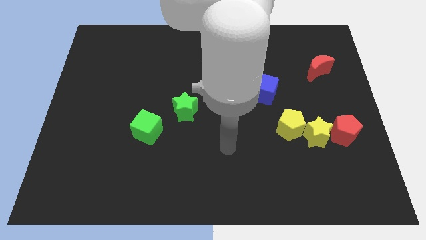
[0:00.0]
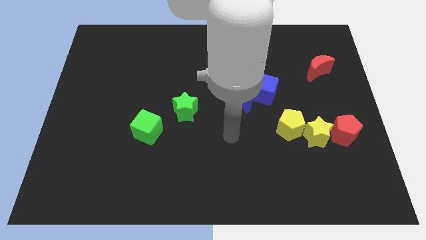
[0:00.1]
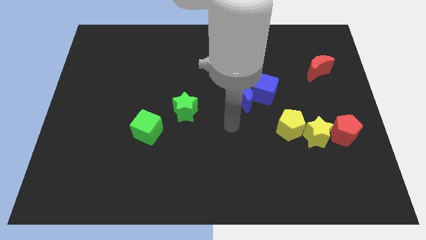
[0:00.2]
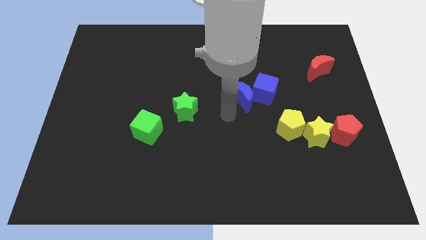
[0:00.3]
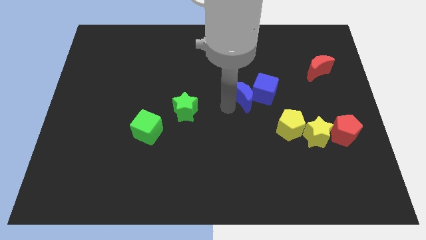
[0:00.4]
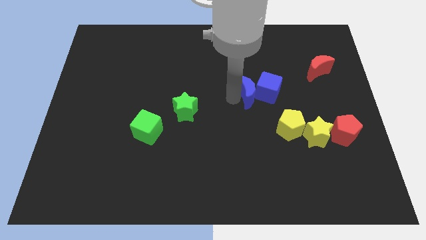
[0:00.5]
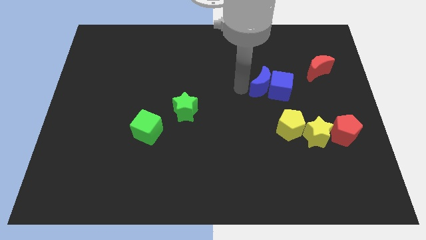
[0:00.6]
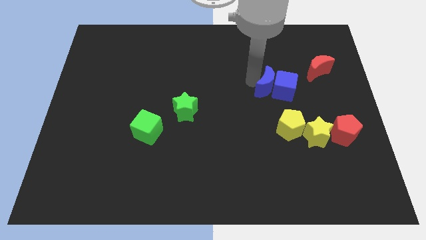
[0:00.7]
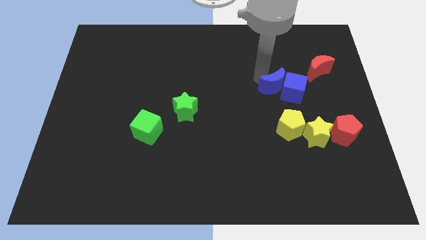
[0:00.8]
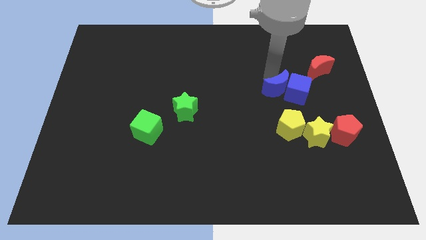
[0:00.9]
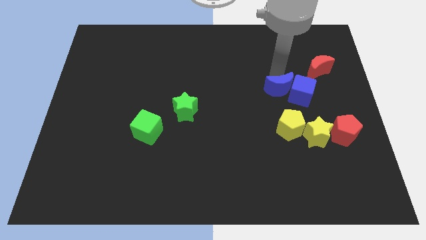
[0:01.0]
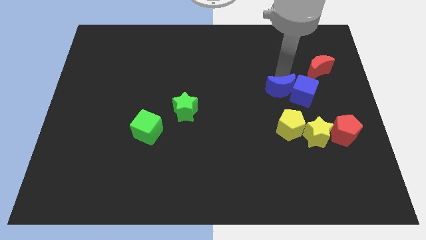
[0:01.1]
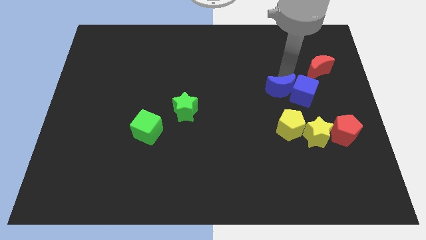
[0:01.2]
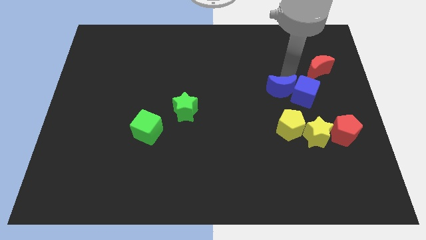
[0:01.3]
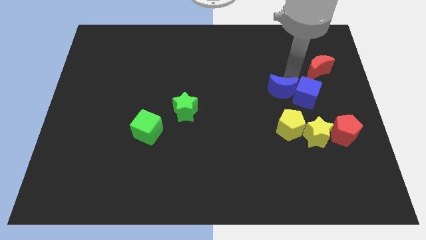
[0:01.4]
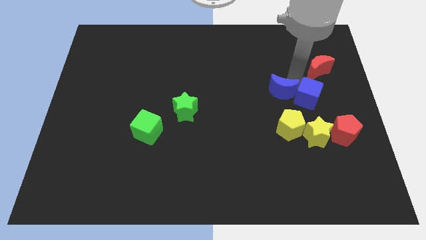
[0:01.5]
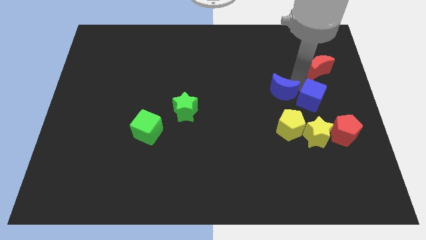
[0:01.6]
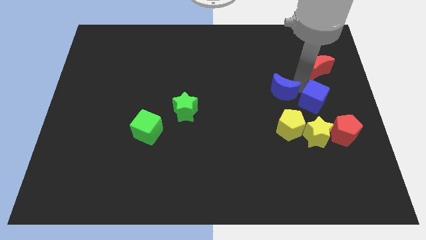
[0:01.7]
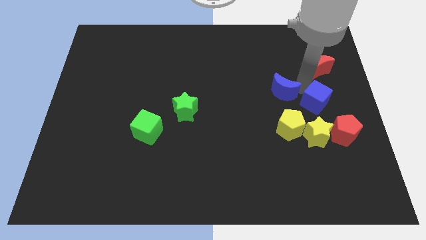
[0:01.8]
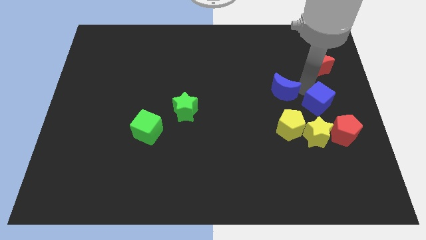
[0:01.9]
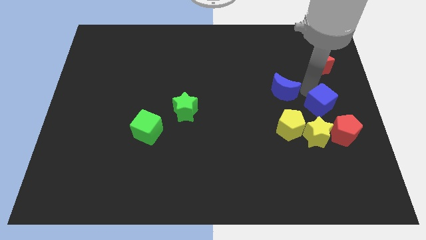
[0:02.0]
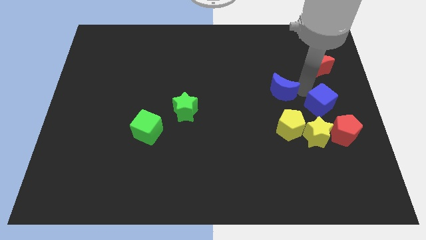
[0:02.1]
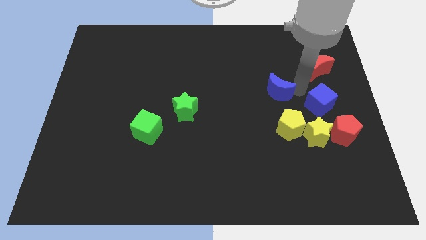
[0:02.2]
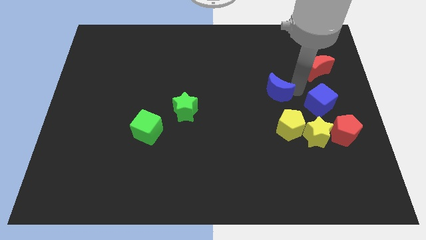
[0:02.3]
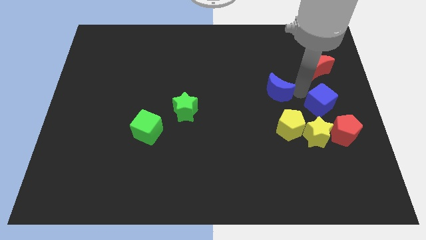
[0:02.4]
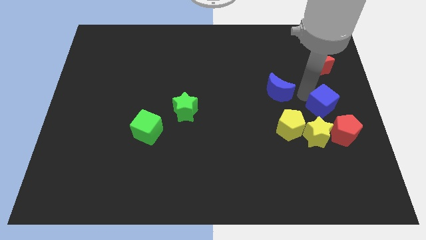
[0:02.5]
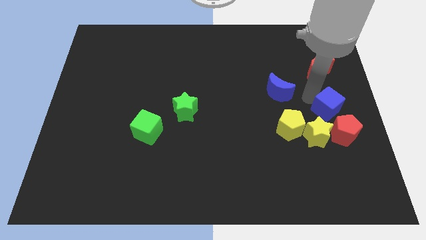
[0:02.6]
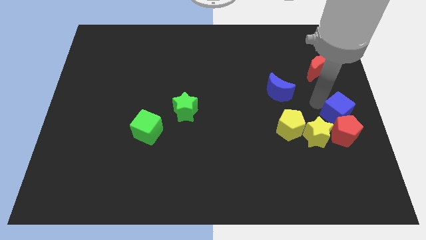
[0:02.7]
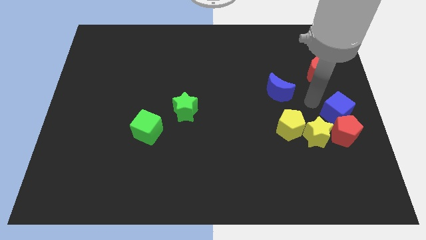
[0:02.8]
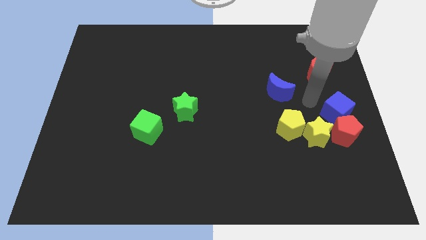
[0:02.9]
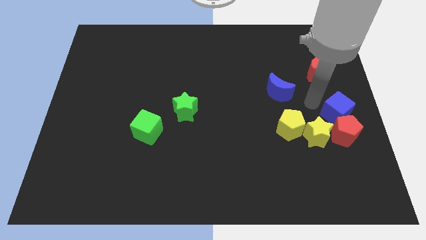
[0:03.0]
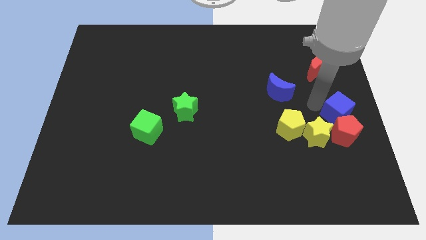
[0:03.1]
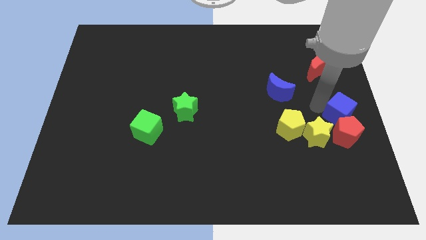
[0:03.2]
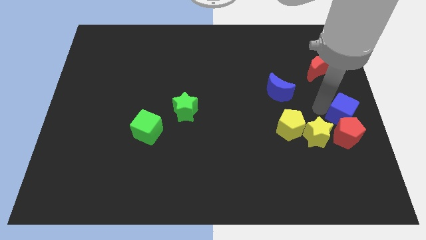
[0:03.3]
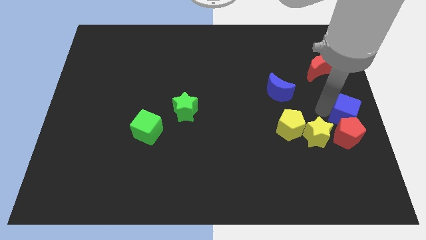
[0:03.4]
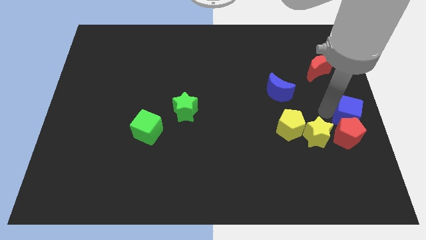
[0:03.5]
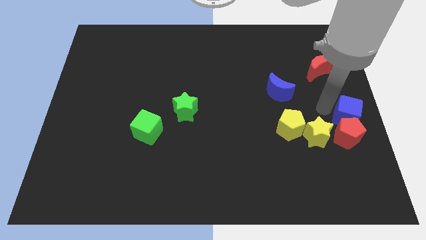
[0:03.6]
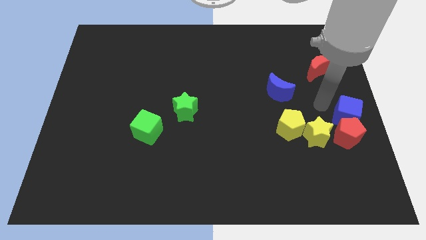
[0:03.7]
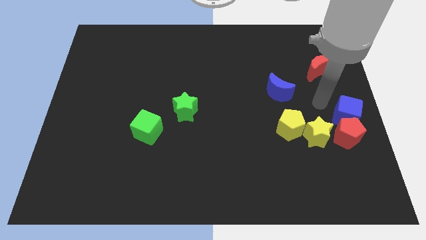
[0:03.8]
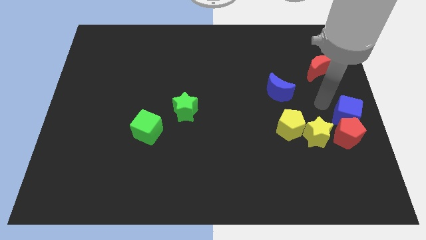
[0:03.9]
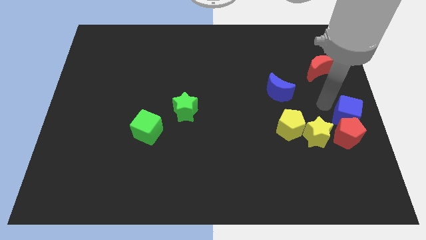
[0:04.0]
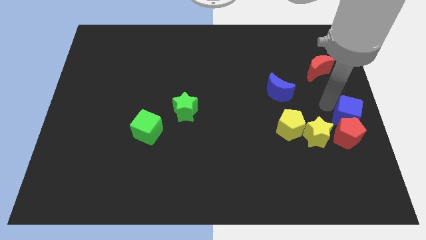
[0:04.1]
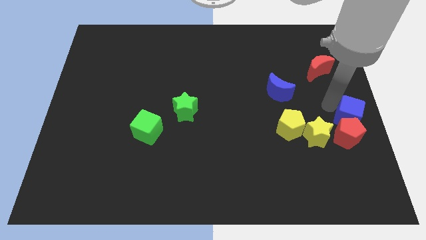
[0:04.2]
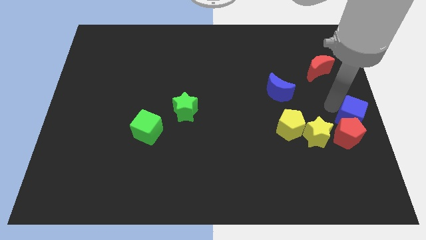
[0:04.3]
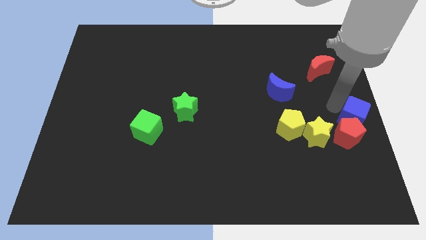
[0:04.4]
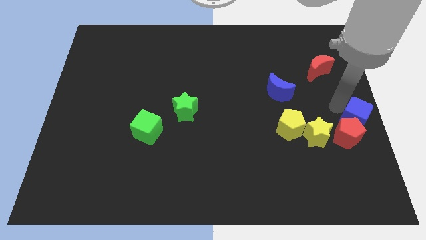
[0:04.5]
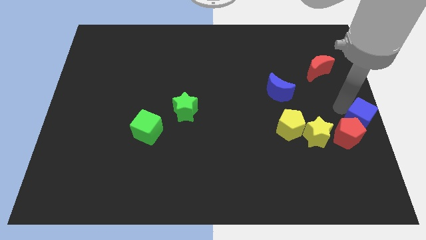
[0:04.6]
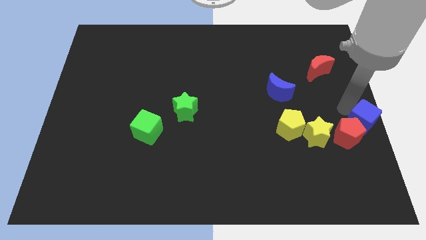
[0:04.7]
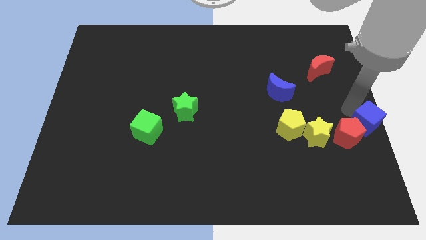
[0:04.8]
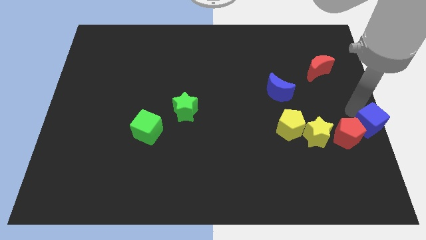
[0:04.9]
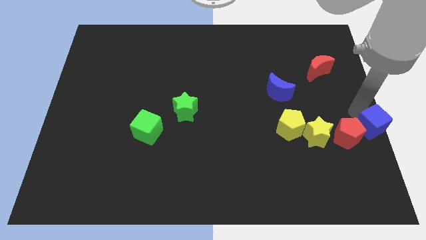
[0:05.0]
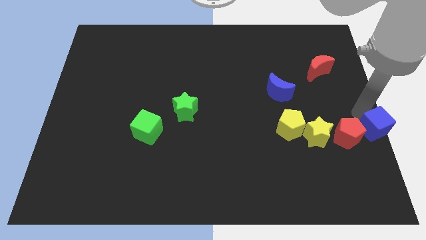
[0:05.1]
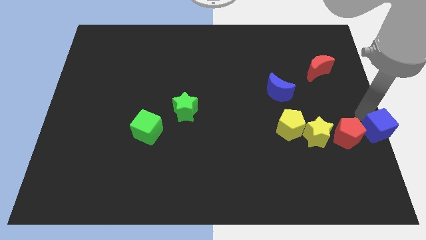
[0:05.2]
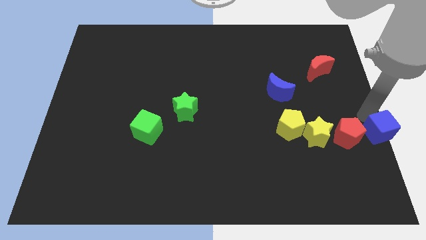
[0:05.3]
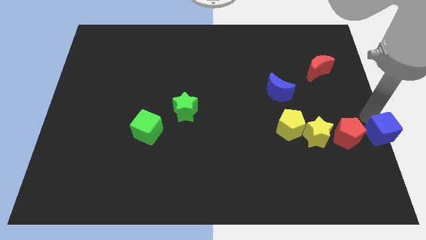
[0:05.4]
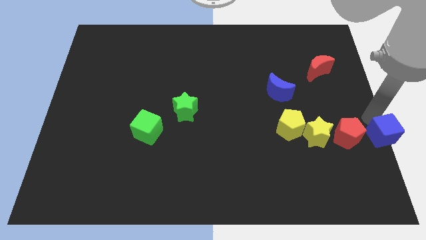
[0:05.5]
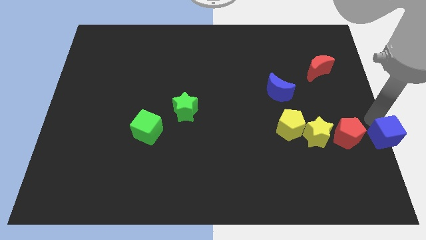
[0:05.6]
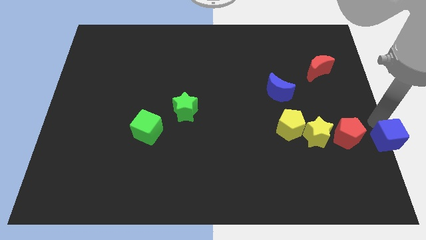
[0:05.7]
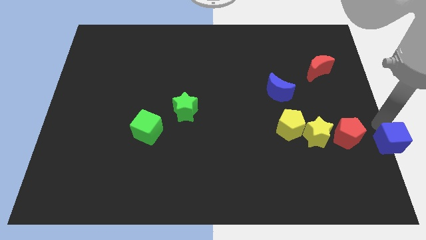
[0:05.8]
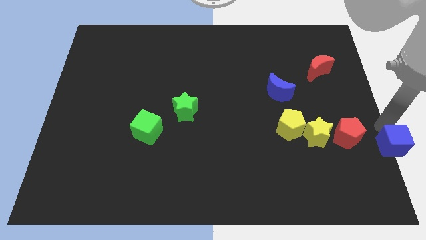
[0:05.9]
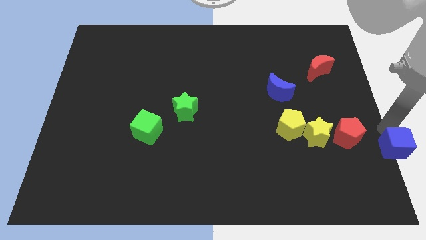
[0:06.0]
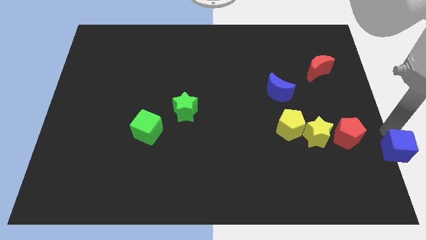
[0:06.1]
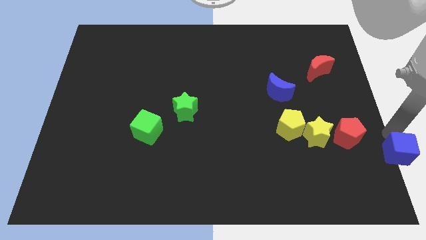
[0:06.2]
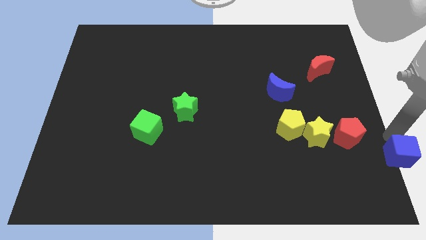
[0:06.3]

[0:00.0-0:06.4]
slide the blue cube to the bottom right of the board

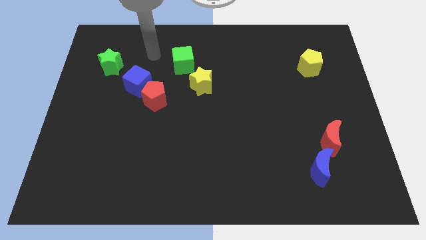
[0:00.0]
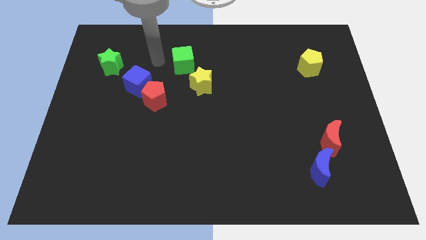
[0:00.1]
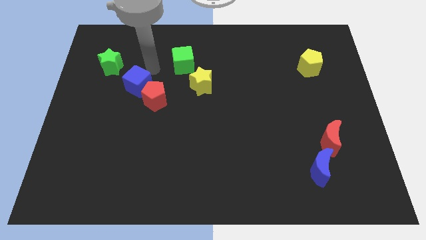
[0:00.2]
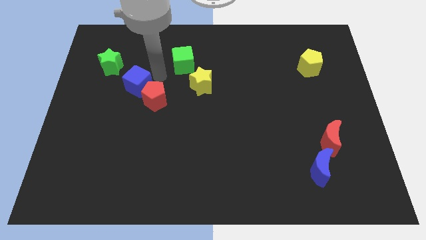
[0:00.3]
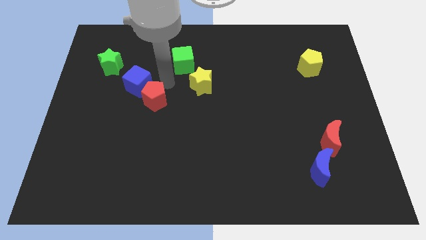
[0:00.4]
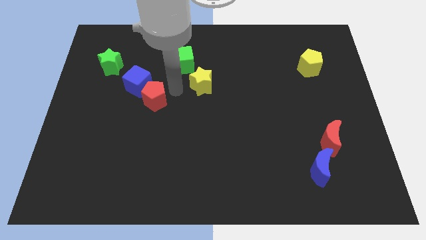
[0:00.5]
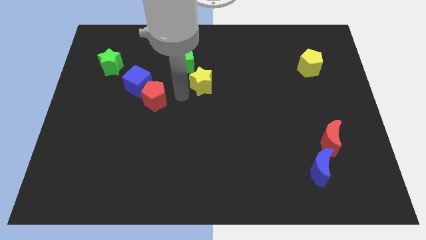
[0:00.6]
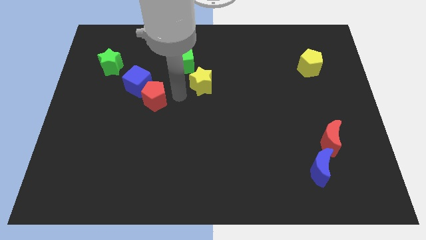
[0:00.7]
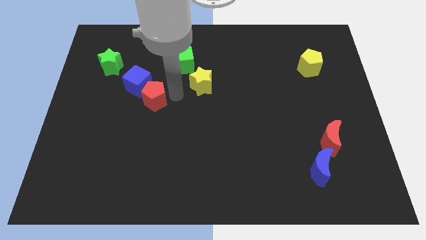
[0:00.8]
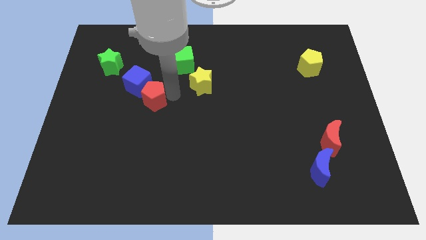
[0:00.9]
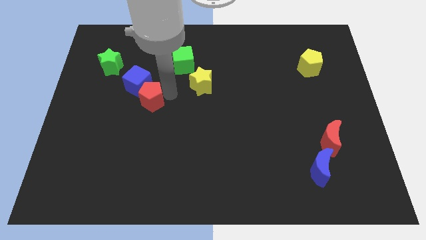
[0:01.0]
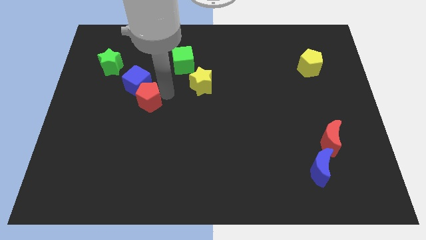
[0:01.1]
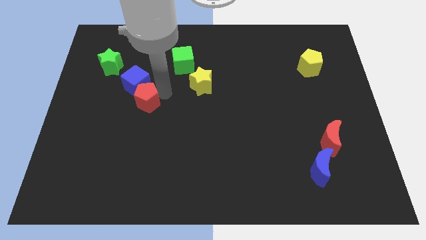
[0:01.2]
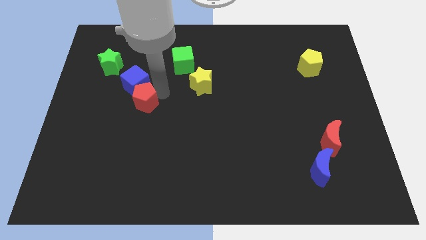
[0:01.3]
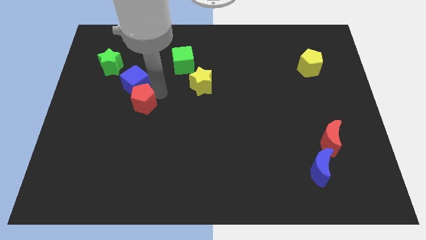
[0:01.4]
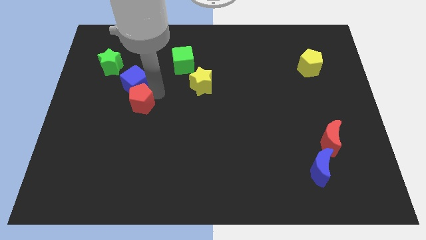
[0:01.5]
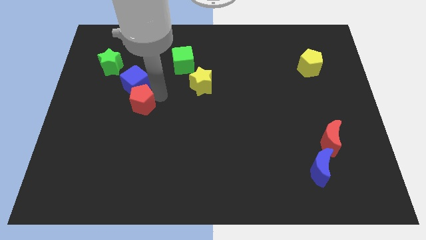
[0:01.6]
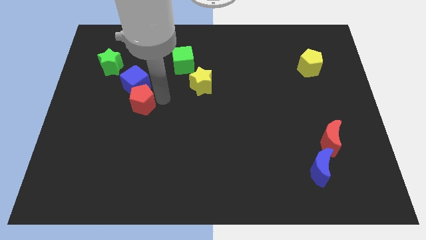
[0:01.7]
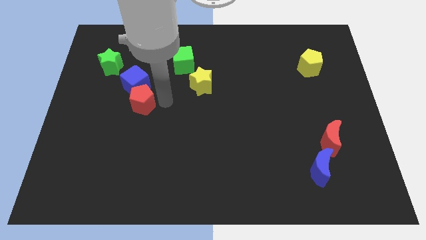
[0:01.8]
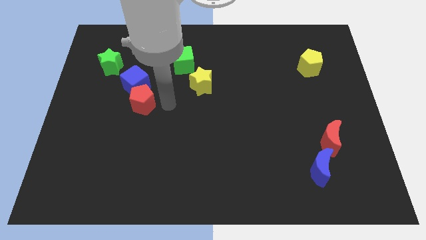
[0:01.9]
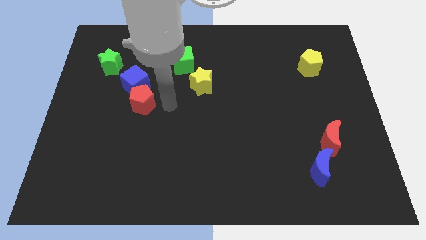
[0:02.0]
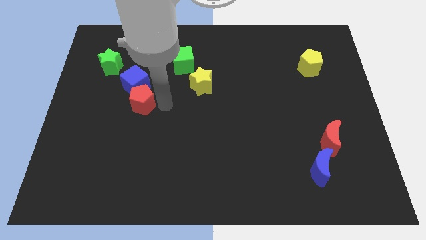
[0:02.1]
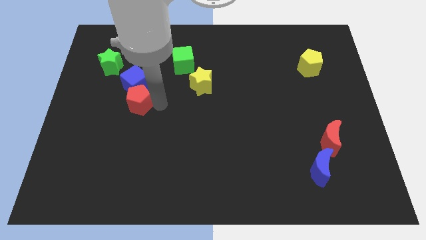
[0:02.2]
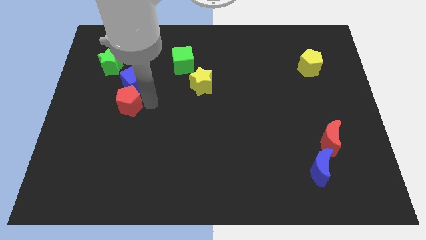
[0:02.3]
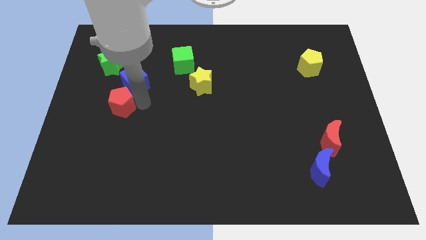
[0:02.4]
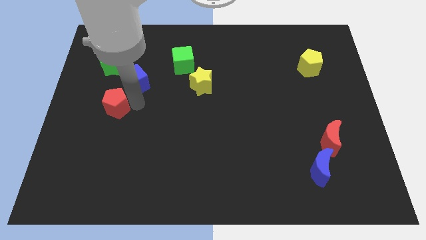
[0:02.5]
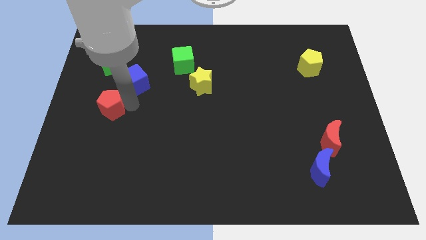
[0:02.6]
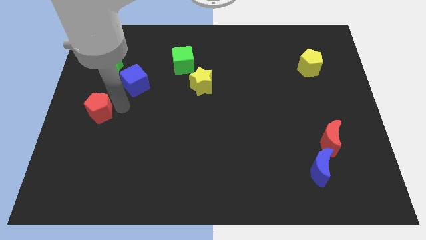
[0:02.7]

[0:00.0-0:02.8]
push the red pentagon to the left side of the board
